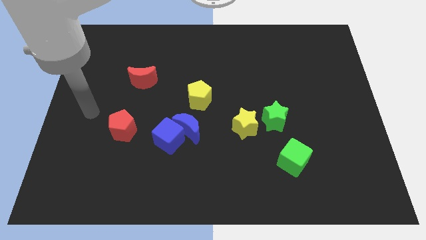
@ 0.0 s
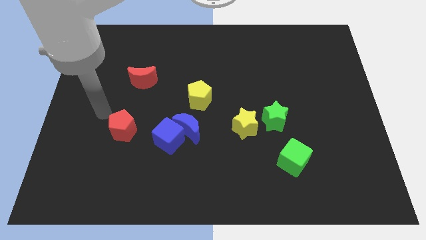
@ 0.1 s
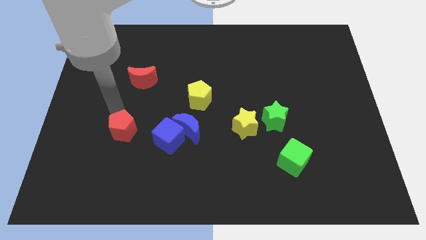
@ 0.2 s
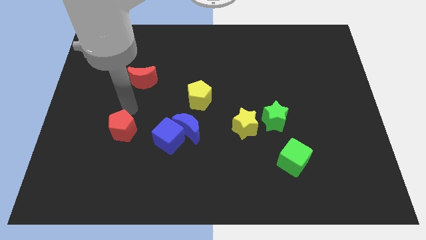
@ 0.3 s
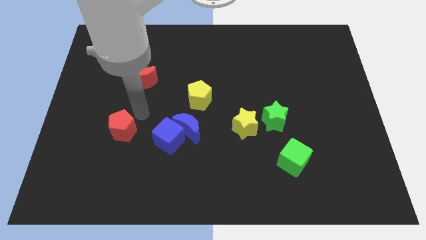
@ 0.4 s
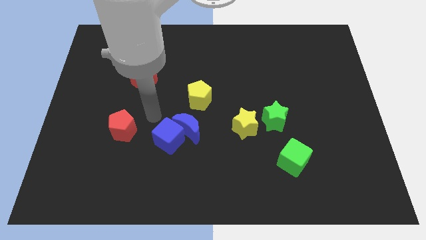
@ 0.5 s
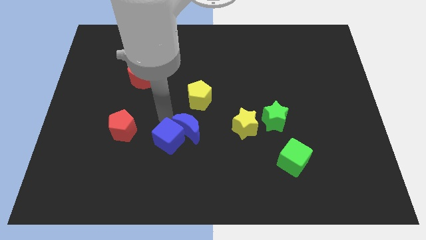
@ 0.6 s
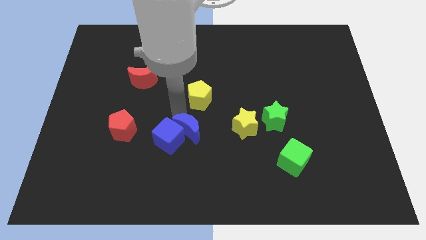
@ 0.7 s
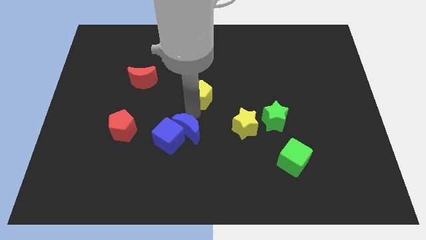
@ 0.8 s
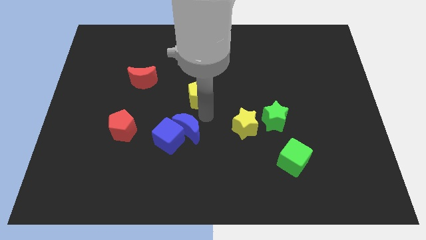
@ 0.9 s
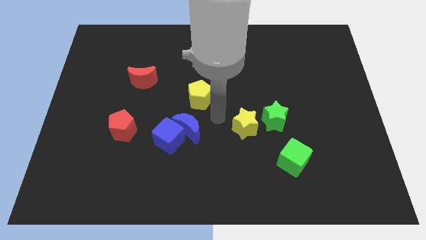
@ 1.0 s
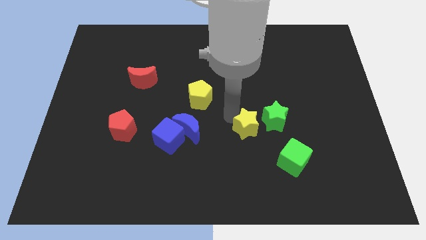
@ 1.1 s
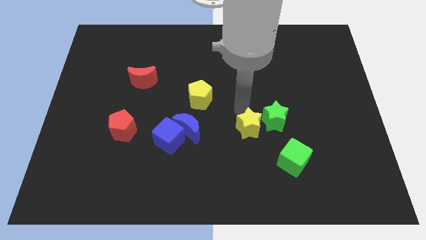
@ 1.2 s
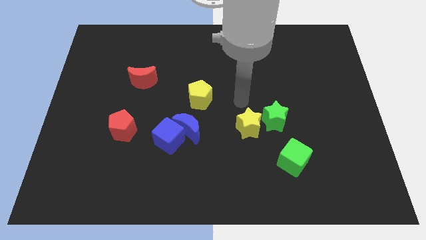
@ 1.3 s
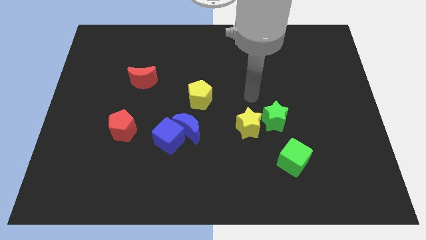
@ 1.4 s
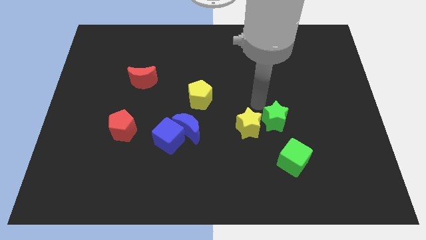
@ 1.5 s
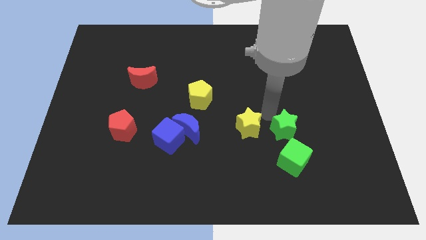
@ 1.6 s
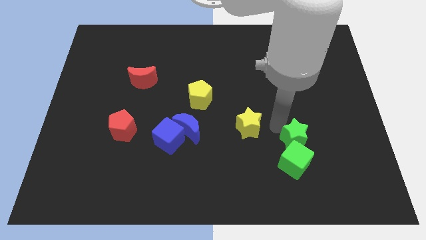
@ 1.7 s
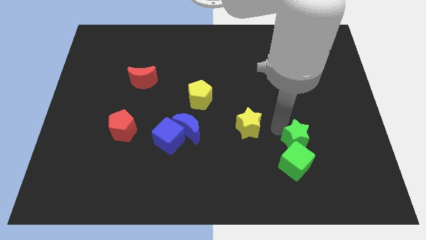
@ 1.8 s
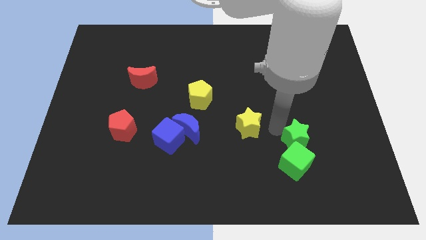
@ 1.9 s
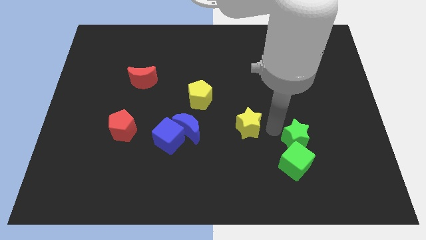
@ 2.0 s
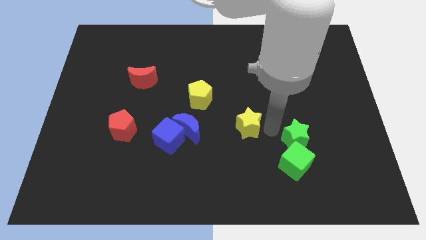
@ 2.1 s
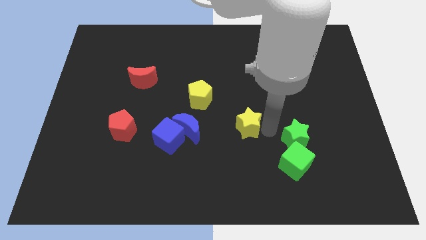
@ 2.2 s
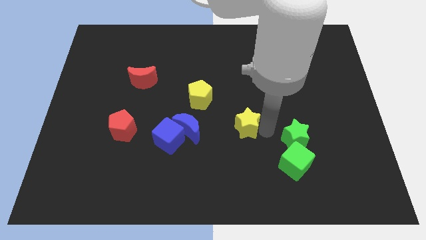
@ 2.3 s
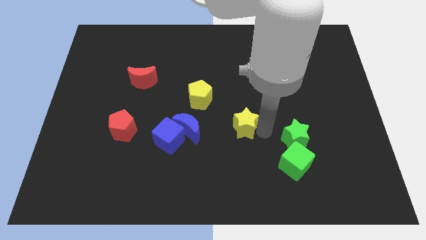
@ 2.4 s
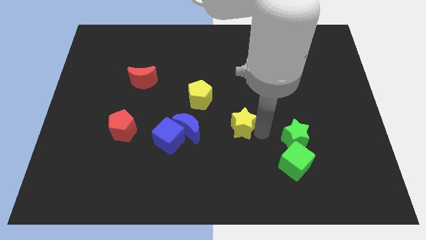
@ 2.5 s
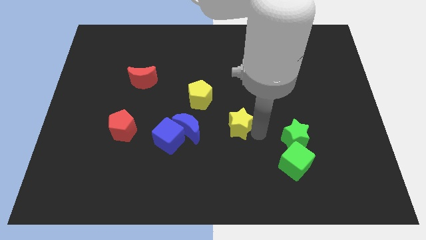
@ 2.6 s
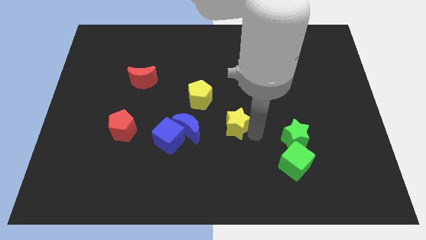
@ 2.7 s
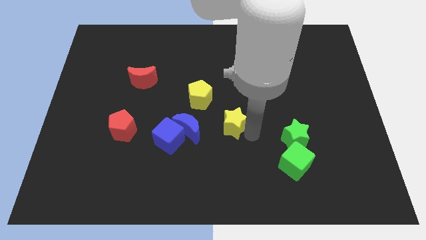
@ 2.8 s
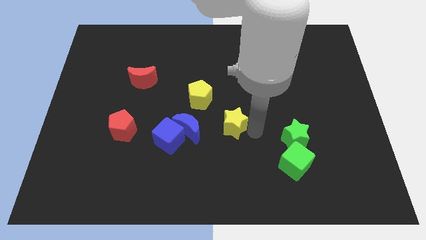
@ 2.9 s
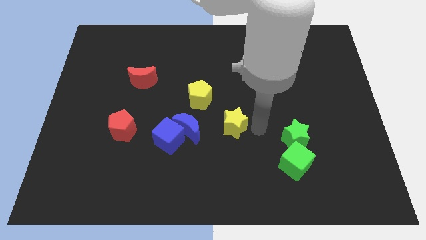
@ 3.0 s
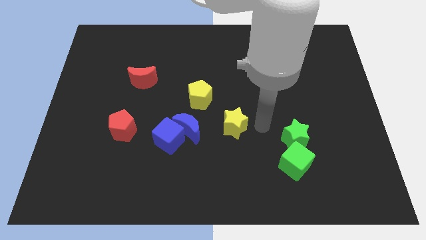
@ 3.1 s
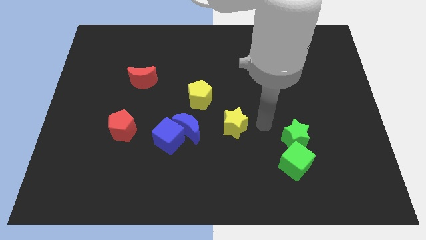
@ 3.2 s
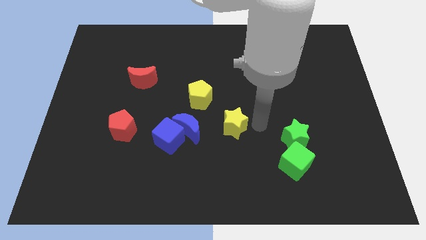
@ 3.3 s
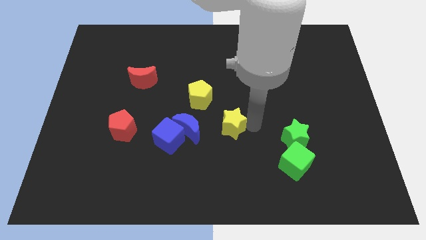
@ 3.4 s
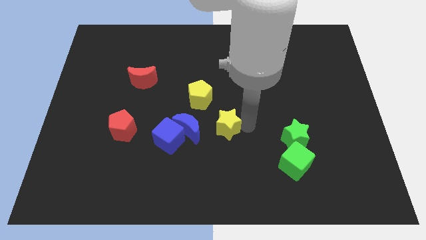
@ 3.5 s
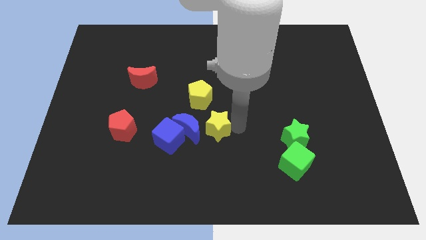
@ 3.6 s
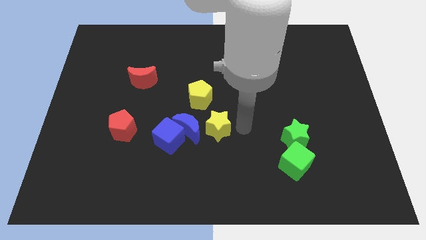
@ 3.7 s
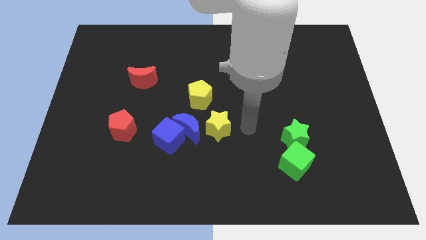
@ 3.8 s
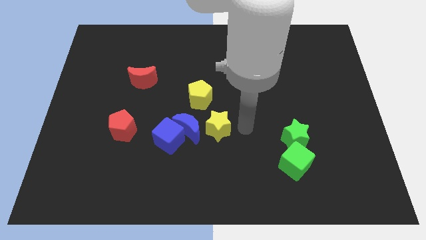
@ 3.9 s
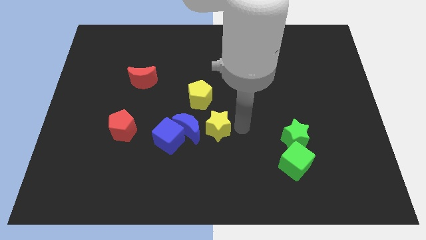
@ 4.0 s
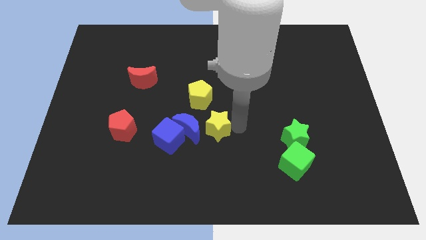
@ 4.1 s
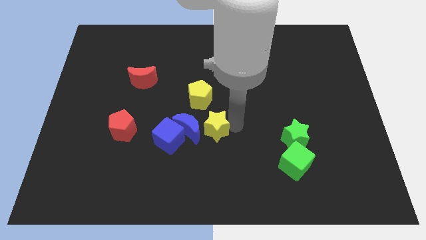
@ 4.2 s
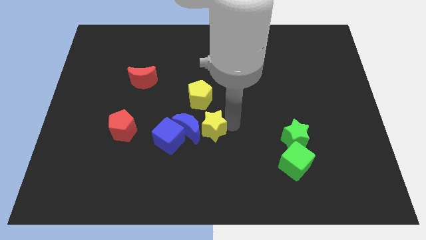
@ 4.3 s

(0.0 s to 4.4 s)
push the yellow star close to the blue moon

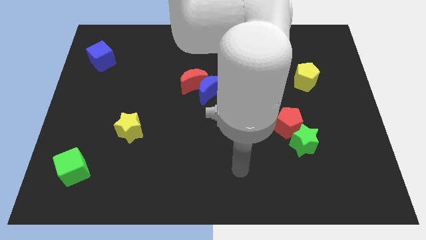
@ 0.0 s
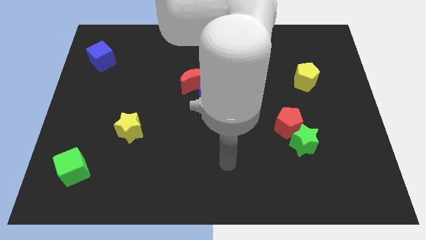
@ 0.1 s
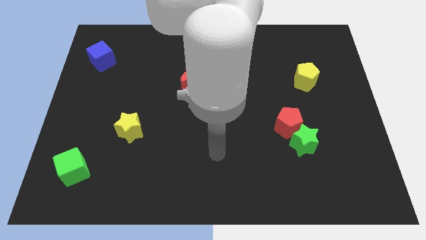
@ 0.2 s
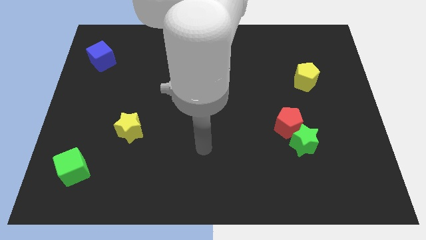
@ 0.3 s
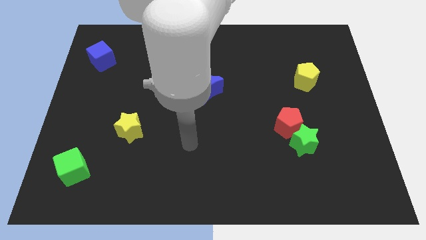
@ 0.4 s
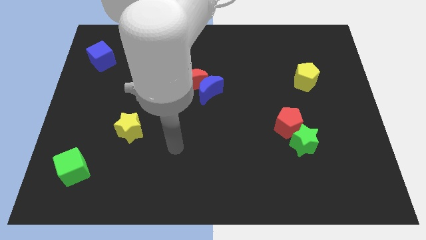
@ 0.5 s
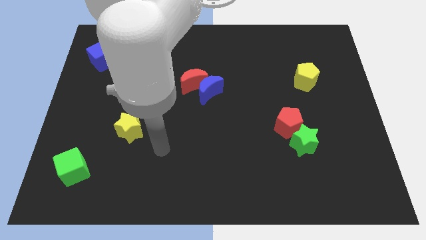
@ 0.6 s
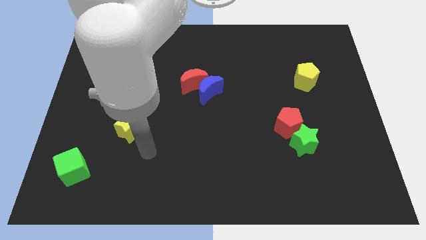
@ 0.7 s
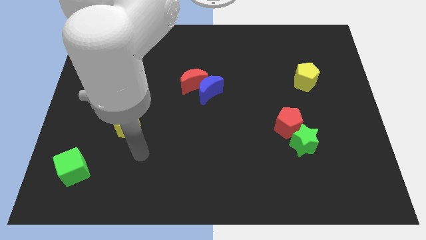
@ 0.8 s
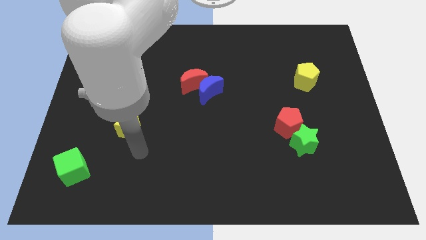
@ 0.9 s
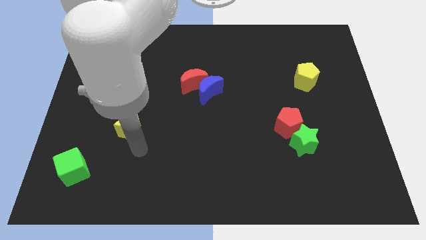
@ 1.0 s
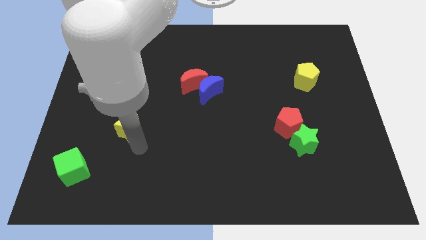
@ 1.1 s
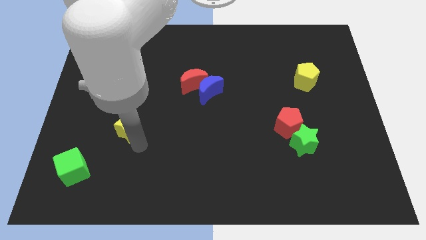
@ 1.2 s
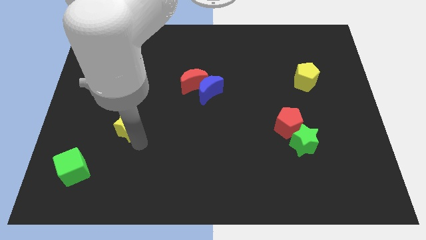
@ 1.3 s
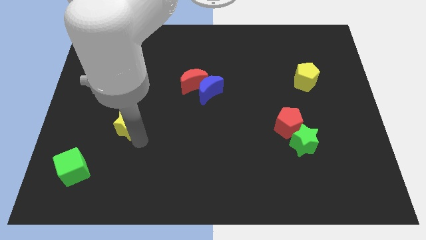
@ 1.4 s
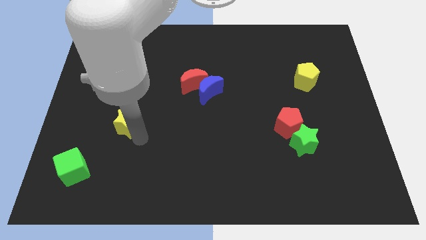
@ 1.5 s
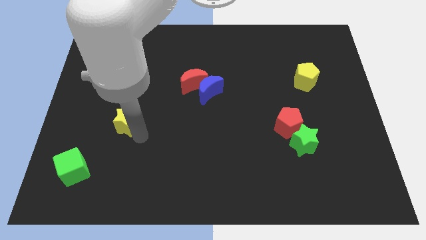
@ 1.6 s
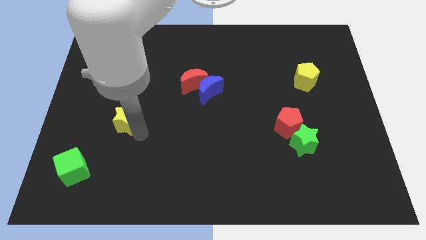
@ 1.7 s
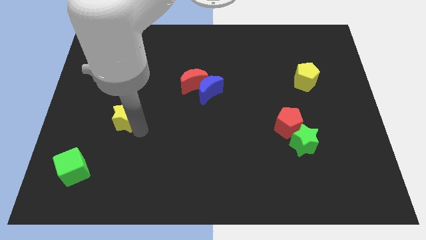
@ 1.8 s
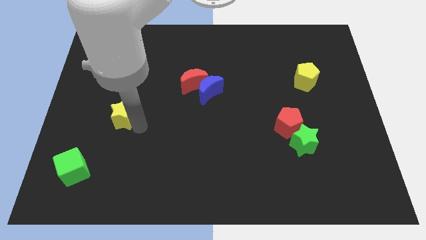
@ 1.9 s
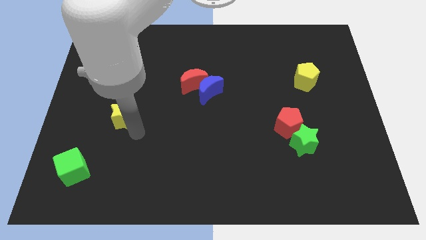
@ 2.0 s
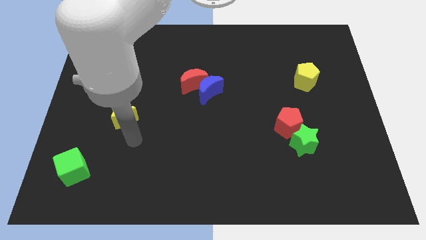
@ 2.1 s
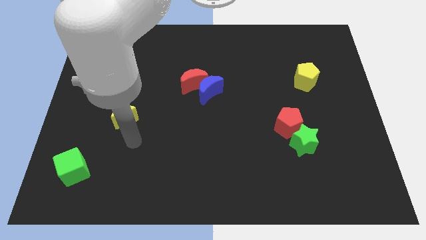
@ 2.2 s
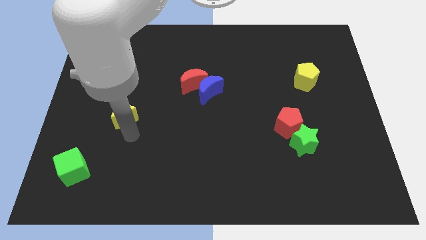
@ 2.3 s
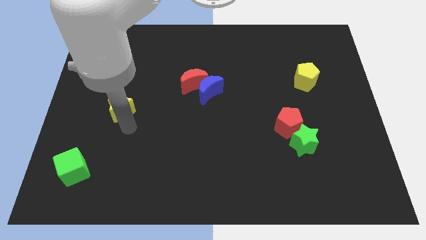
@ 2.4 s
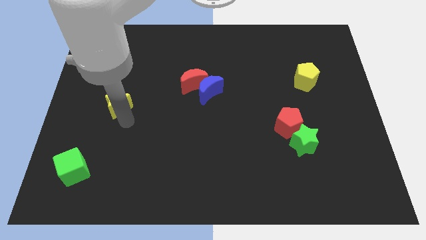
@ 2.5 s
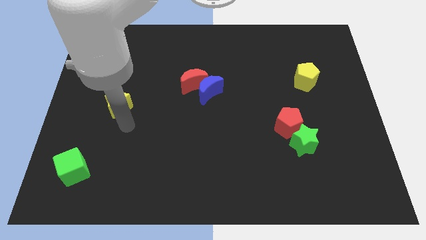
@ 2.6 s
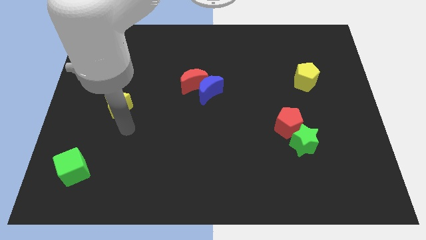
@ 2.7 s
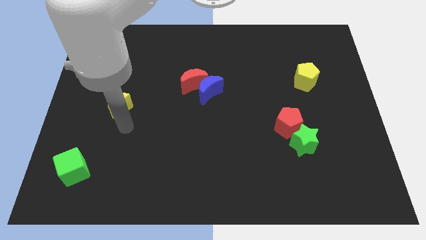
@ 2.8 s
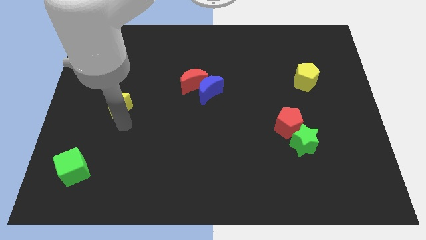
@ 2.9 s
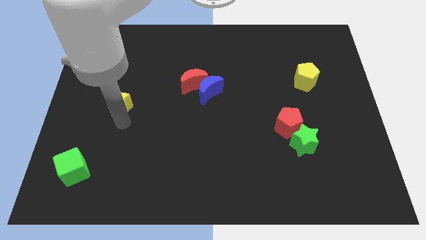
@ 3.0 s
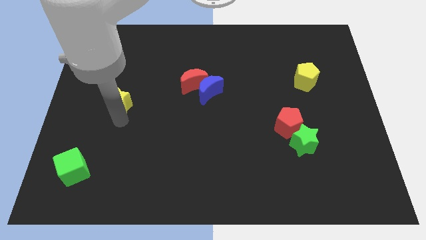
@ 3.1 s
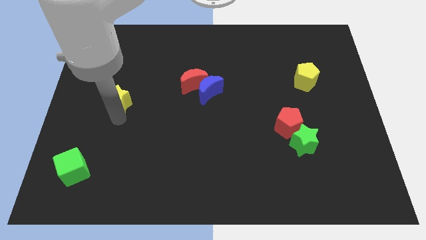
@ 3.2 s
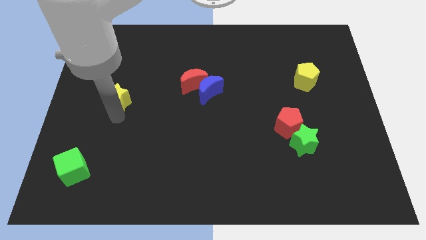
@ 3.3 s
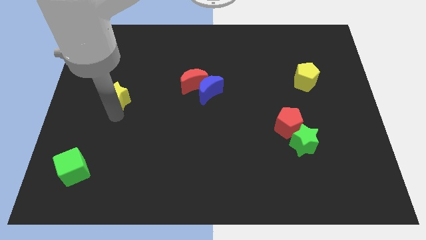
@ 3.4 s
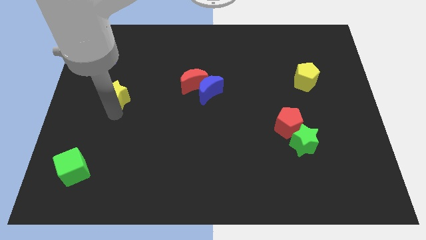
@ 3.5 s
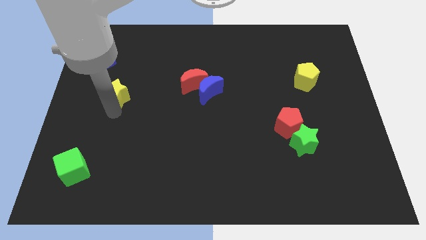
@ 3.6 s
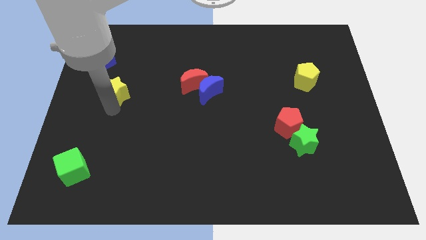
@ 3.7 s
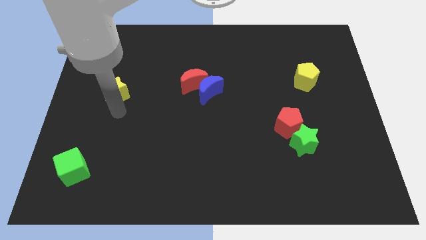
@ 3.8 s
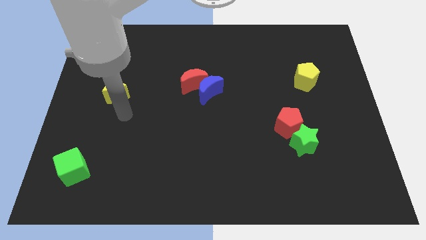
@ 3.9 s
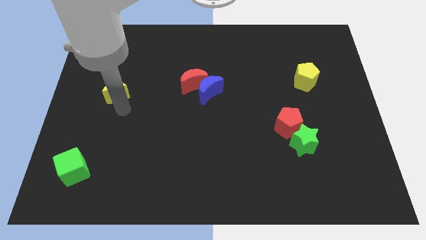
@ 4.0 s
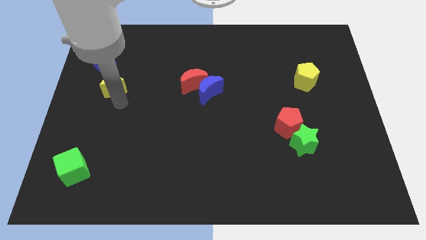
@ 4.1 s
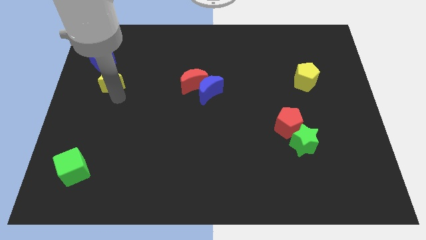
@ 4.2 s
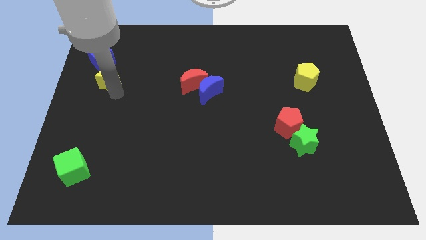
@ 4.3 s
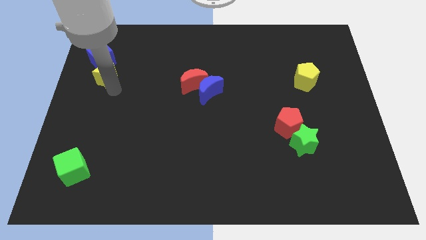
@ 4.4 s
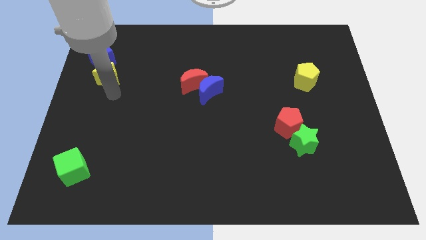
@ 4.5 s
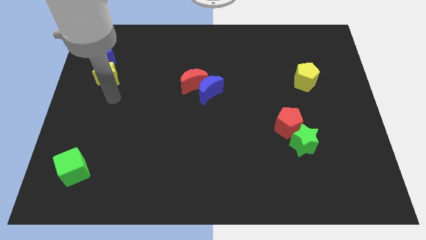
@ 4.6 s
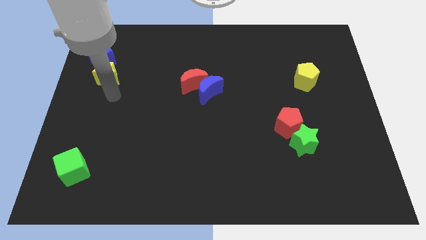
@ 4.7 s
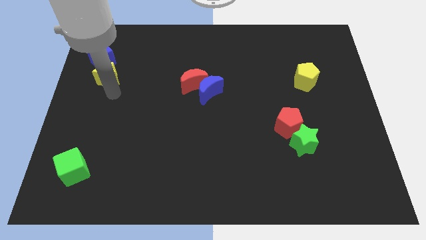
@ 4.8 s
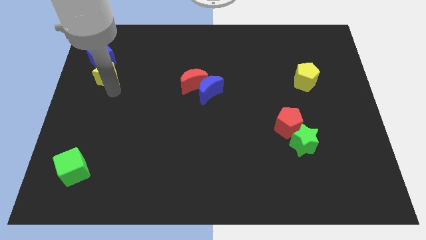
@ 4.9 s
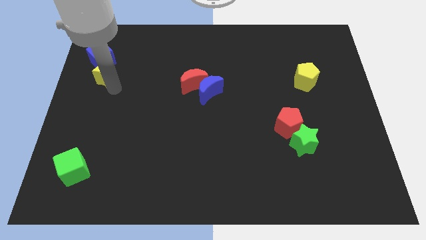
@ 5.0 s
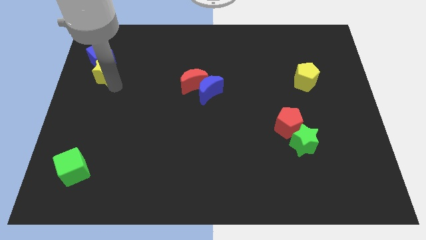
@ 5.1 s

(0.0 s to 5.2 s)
move the yellow star to the blue cube
